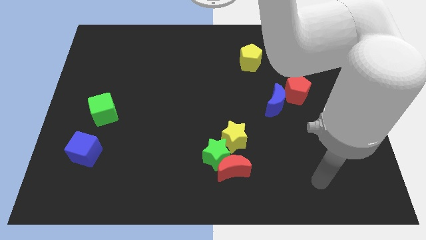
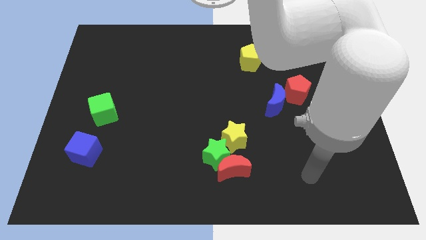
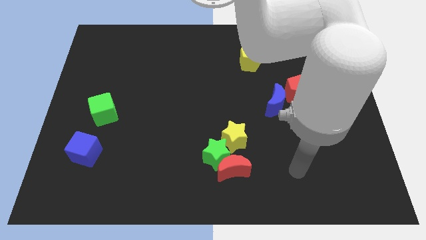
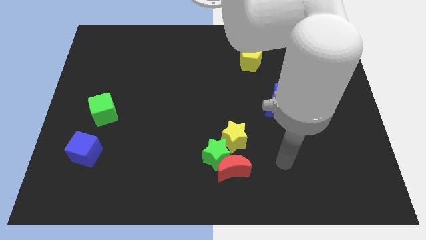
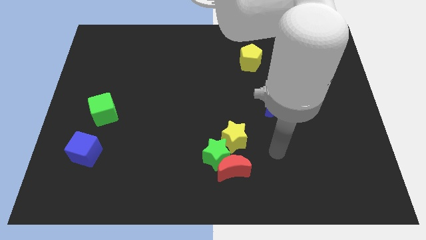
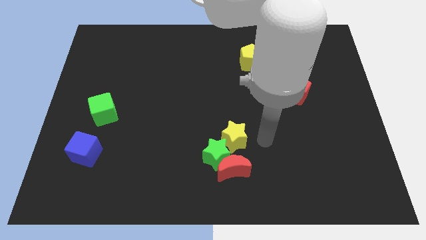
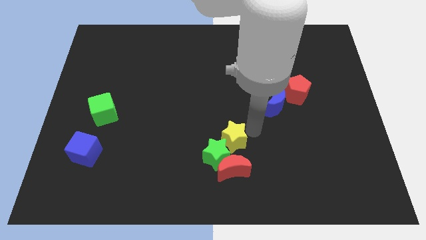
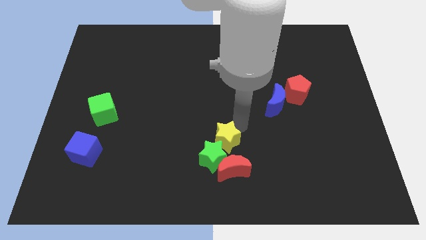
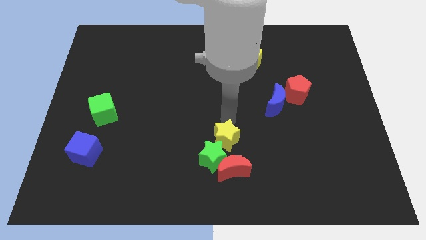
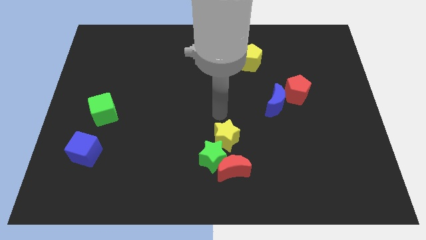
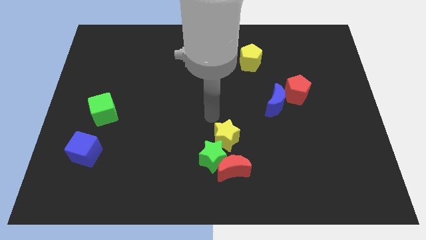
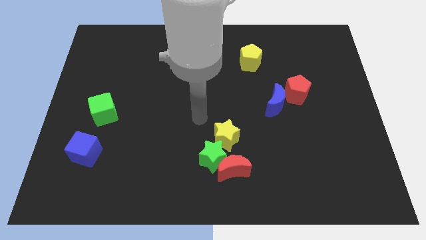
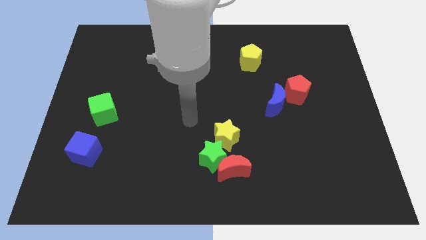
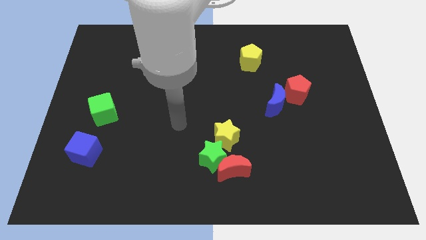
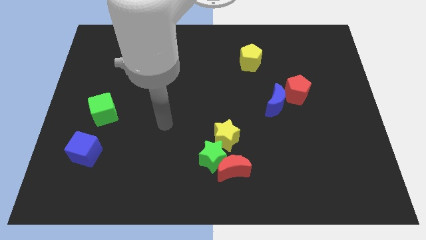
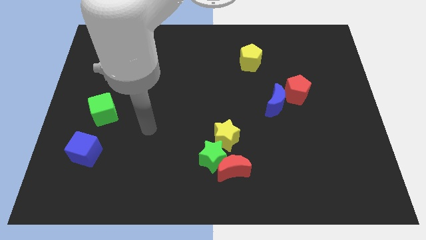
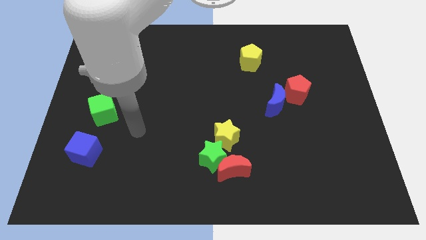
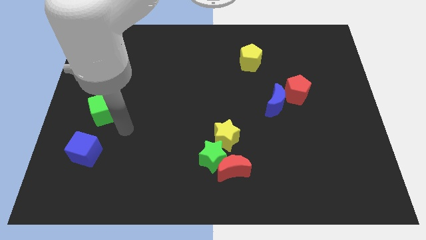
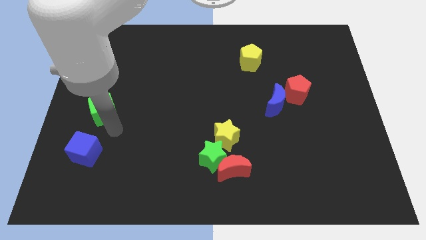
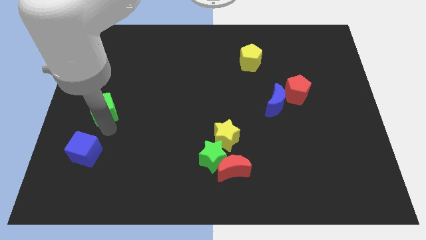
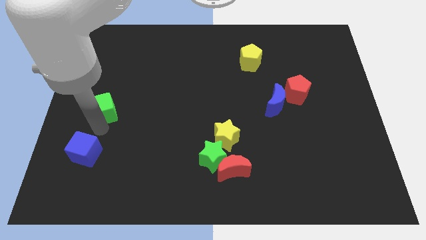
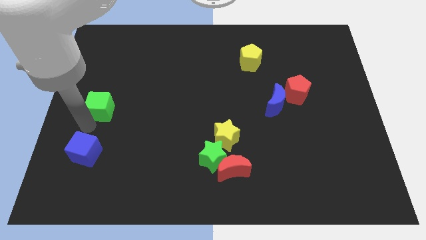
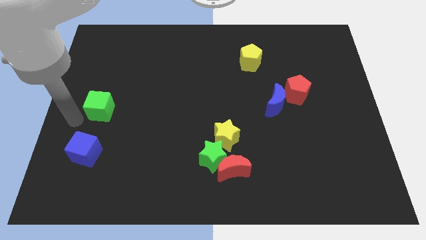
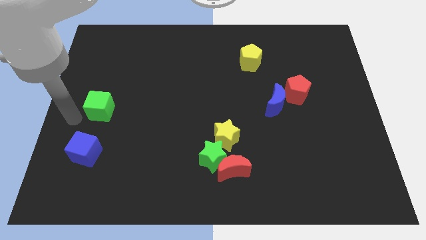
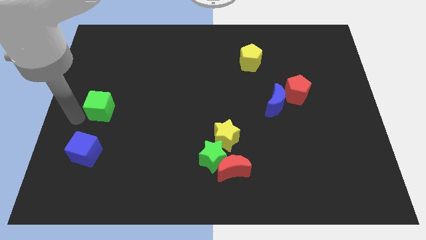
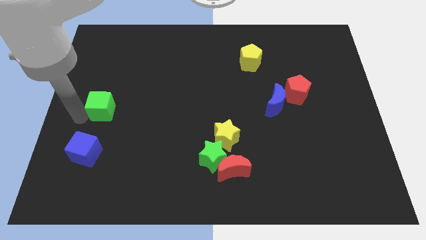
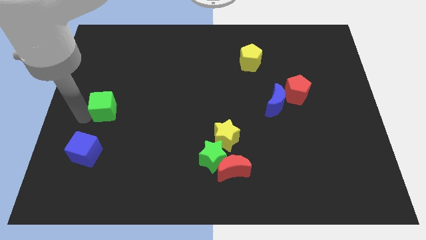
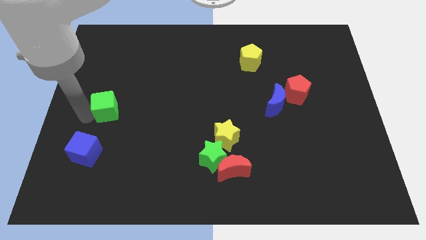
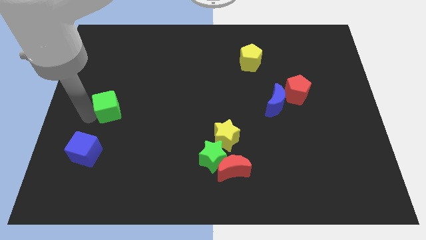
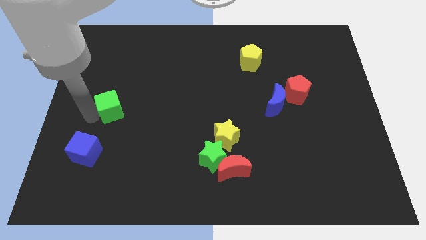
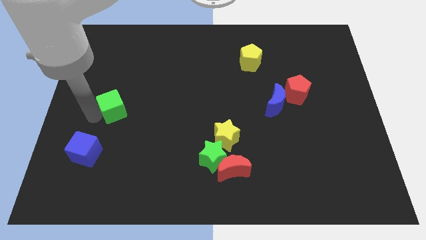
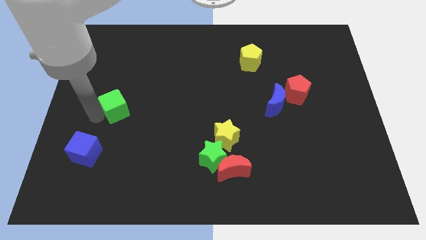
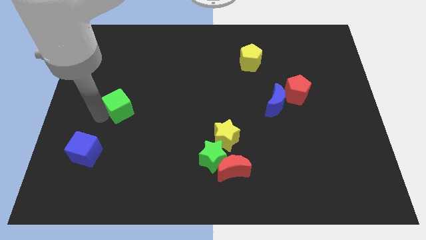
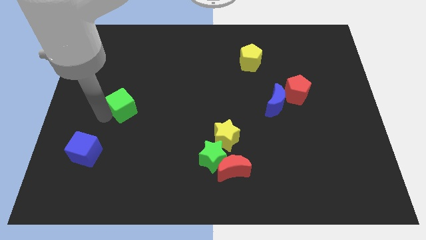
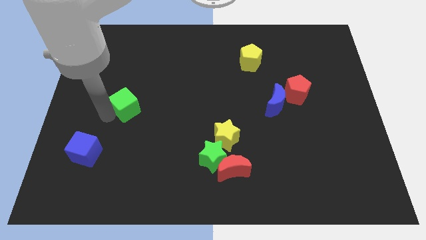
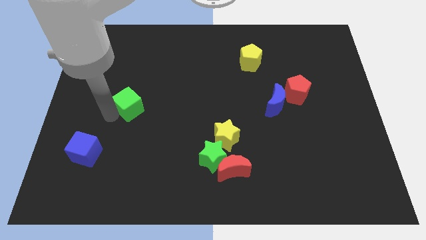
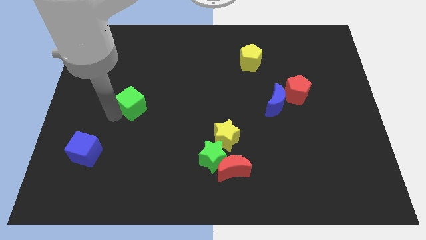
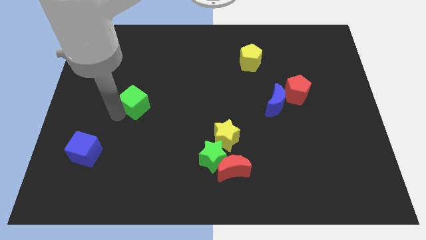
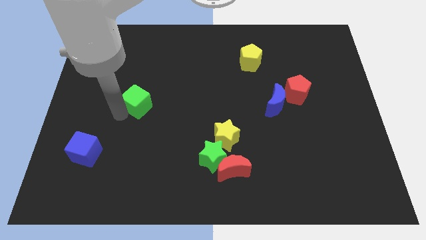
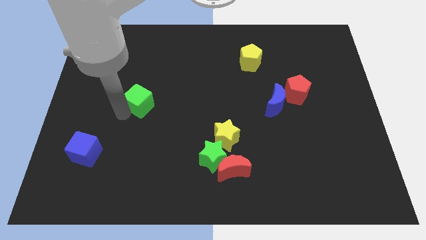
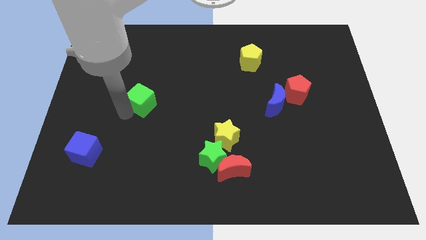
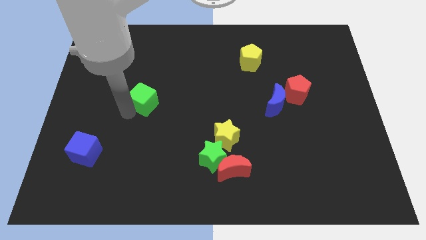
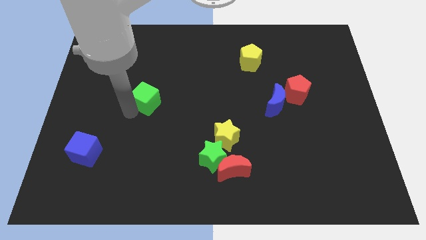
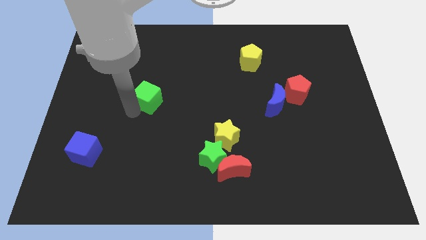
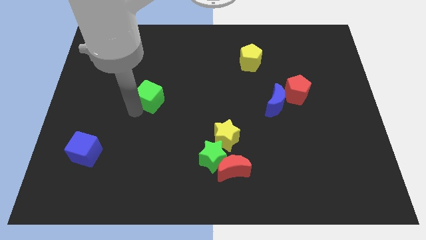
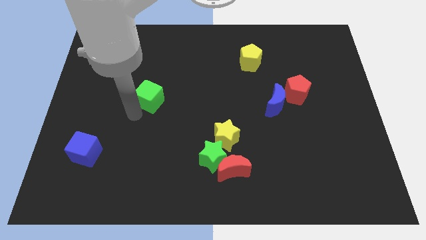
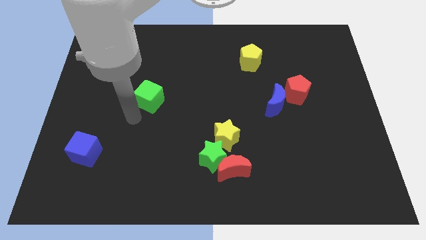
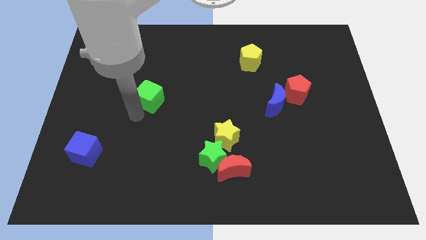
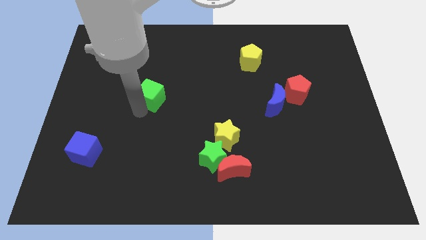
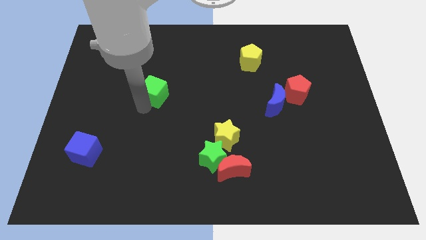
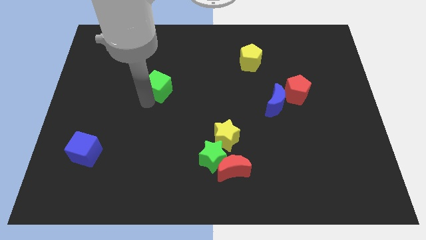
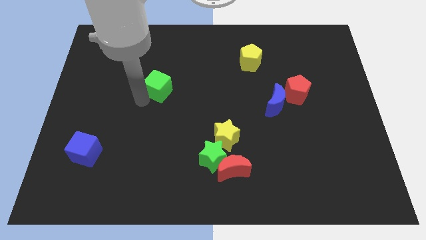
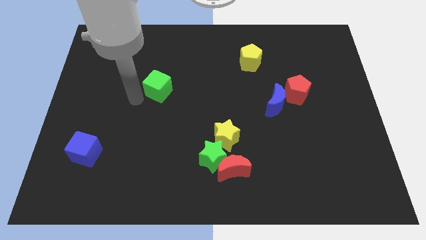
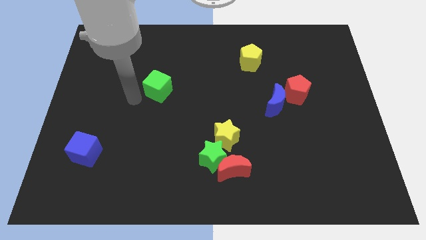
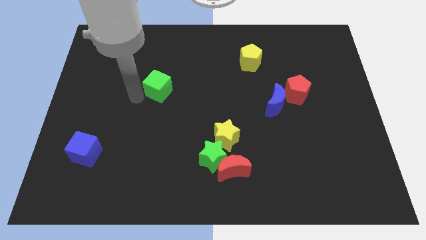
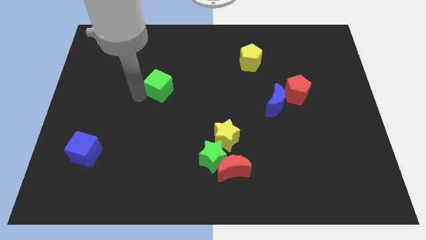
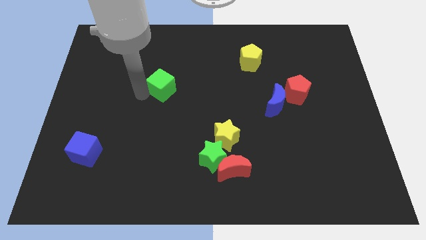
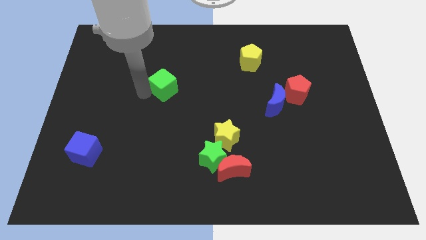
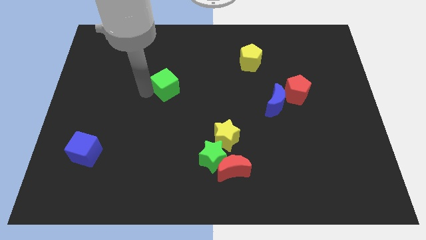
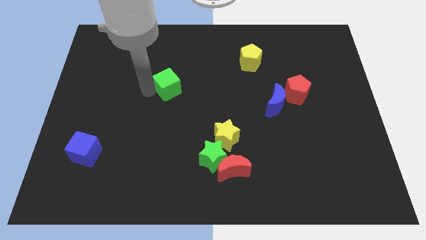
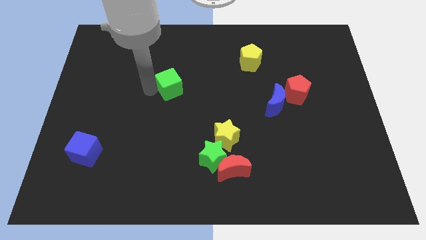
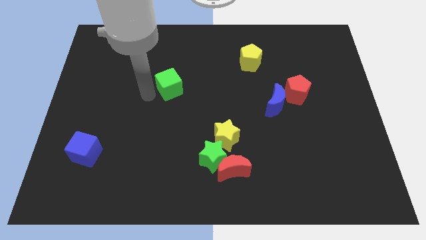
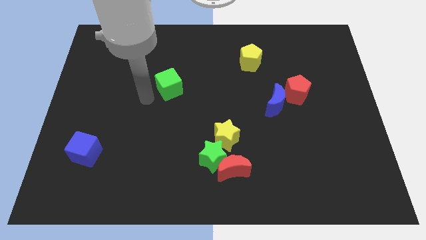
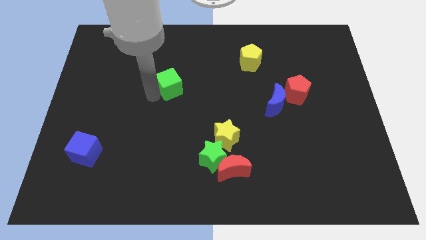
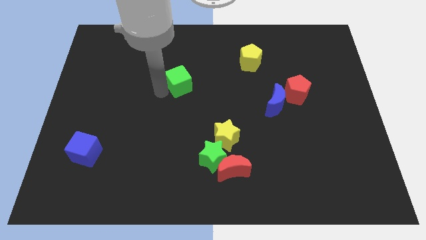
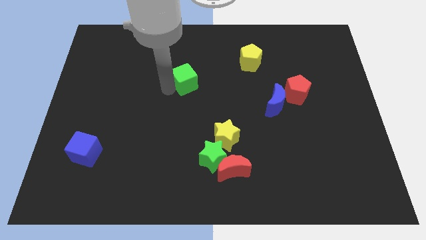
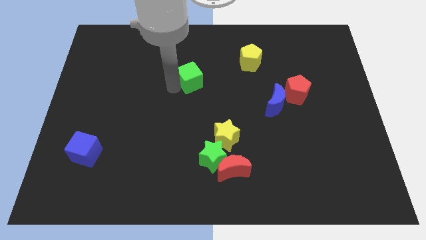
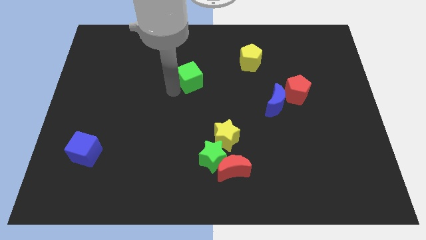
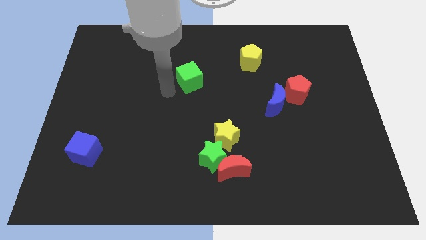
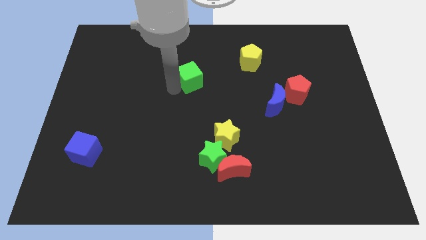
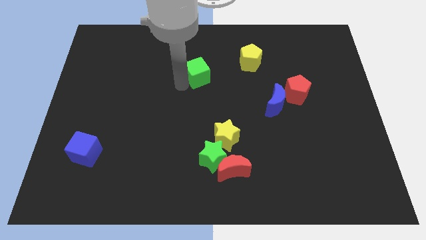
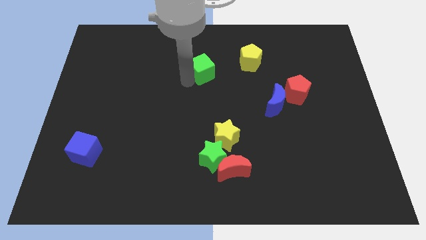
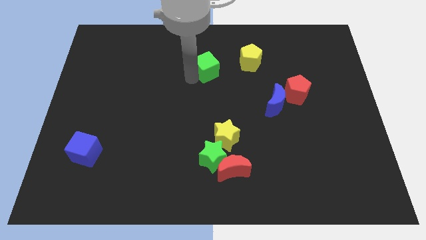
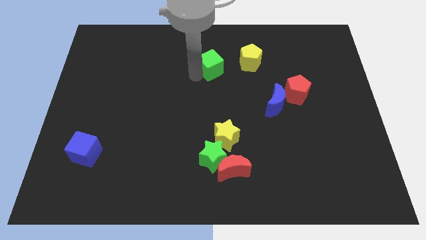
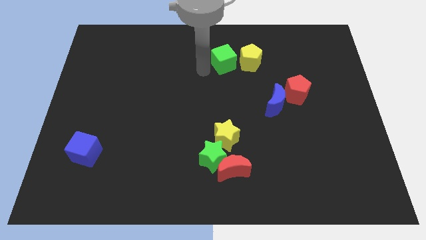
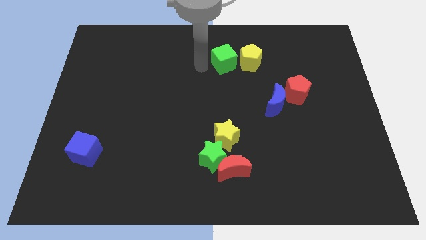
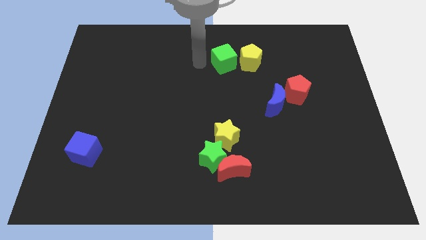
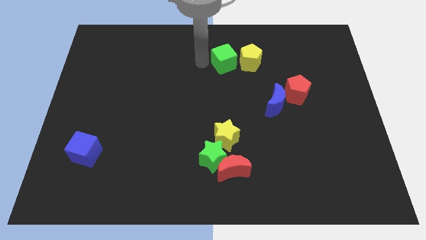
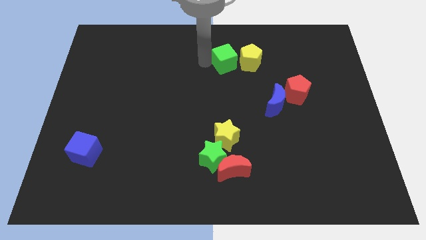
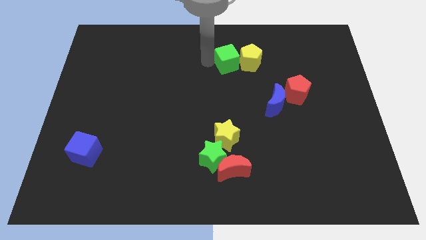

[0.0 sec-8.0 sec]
move the green cube towards the yellow pentagon
